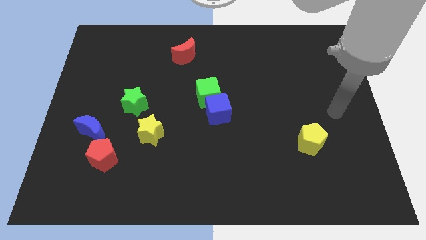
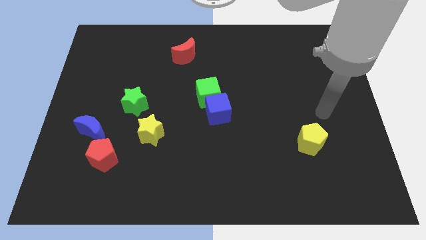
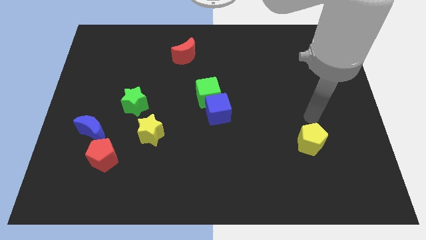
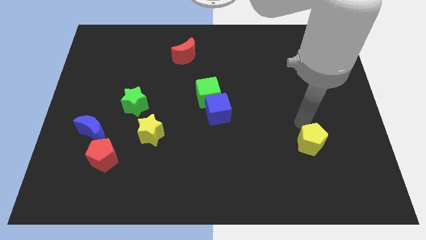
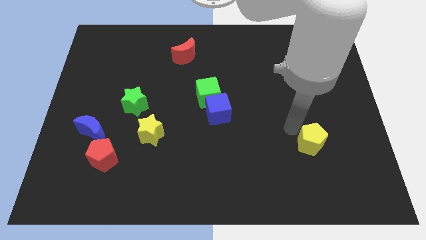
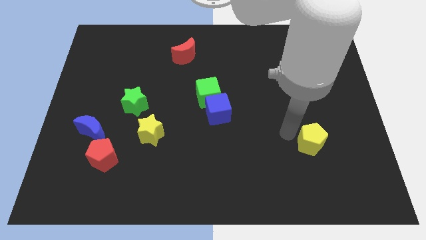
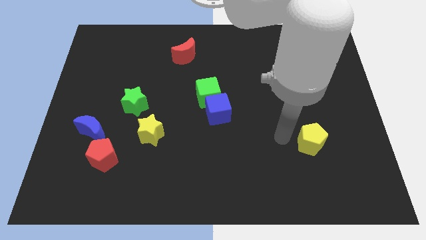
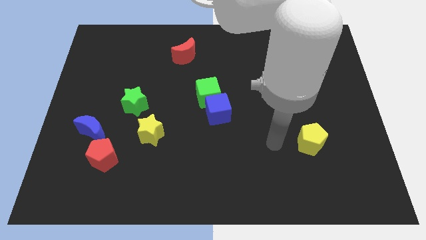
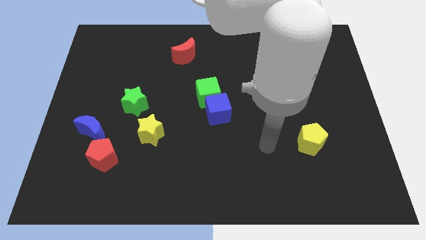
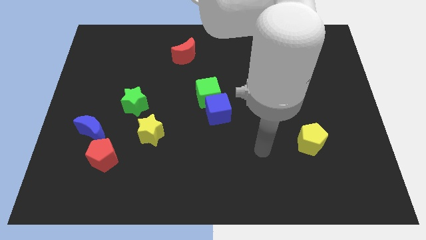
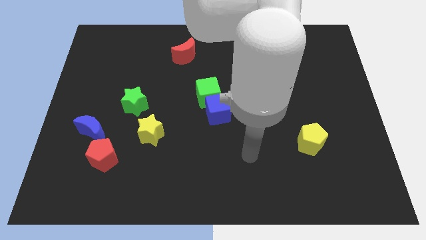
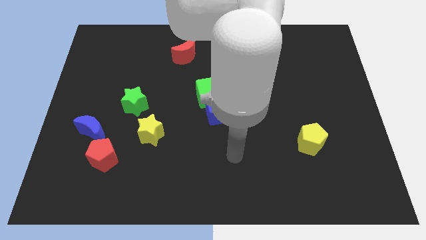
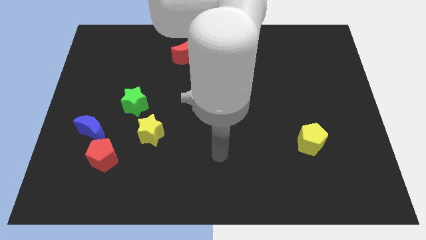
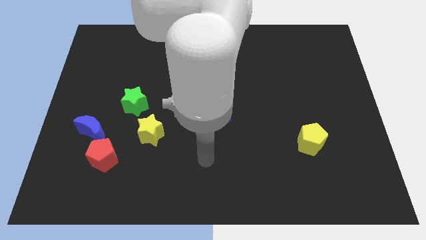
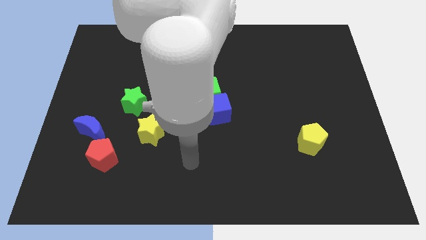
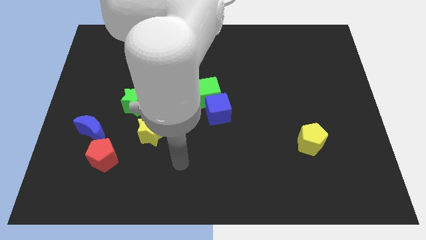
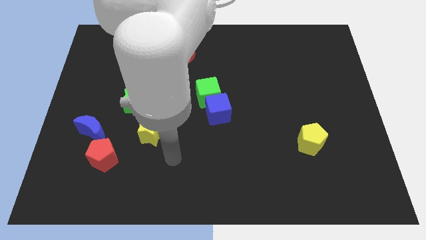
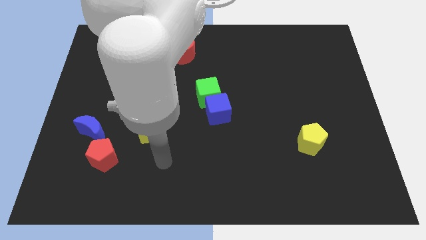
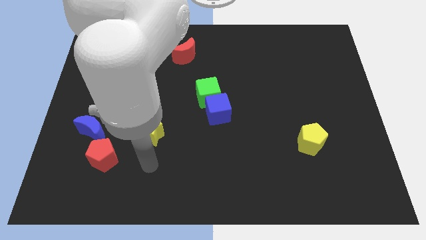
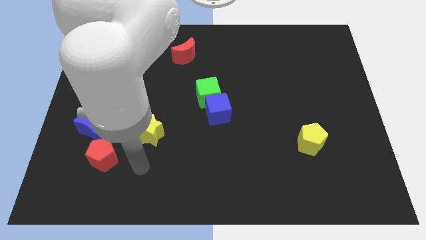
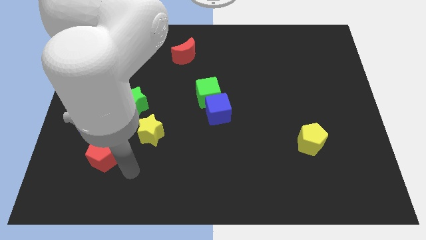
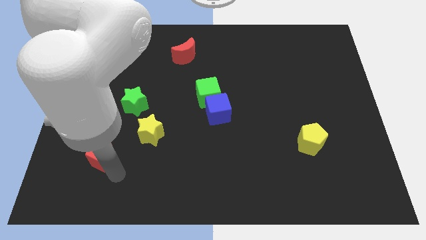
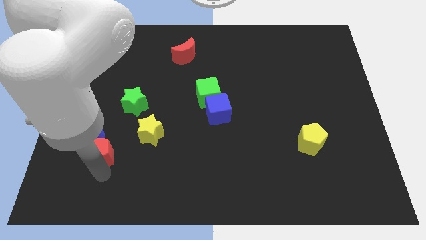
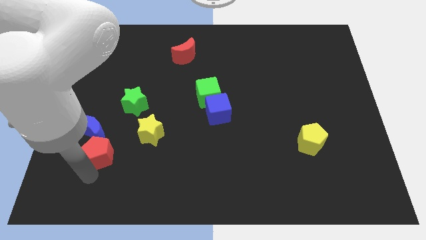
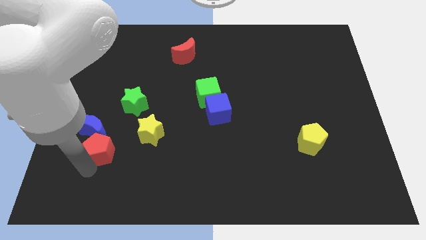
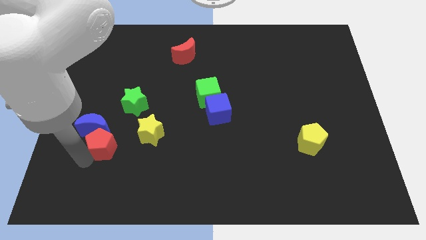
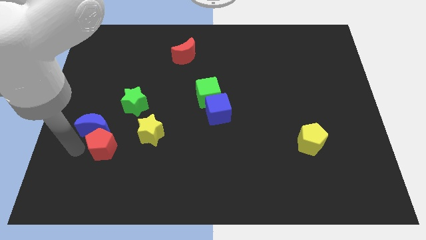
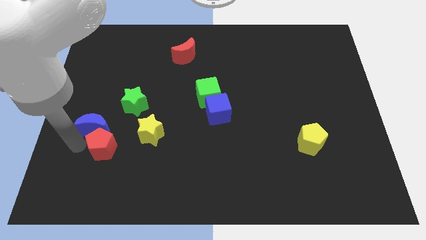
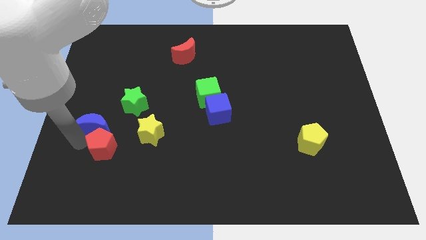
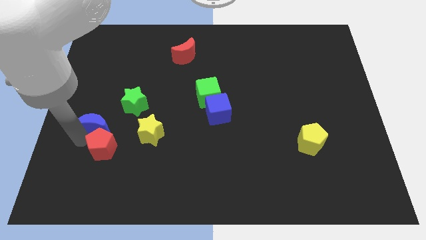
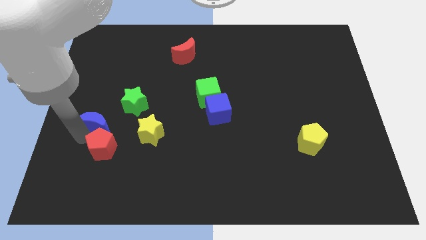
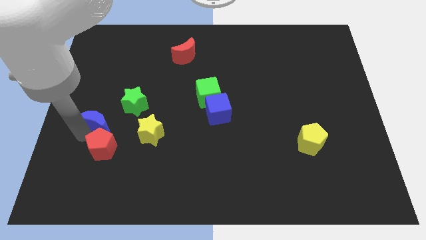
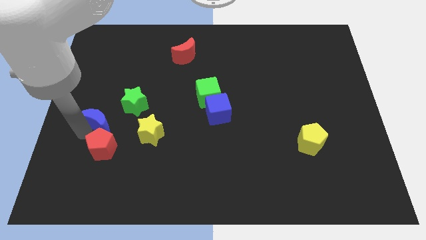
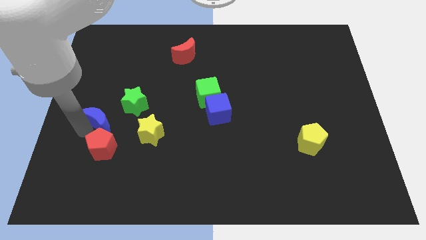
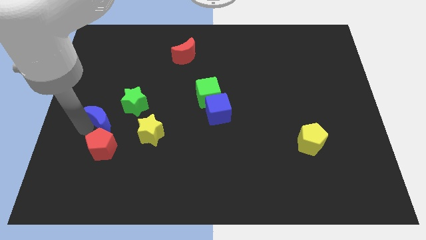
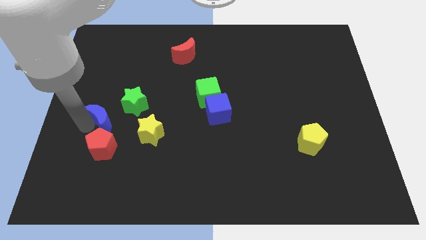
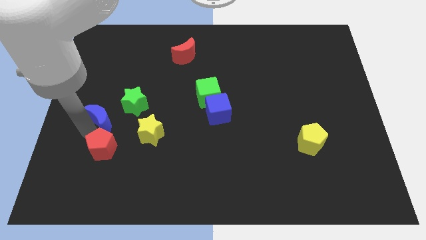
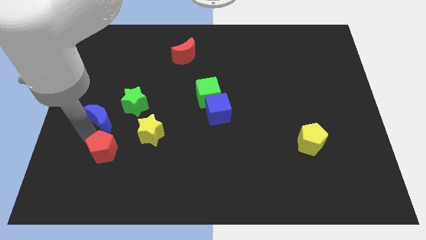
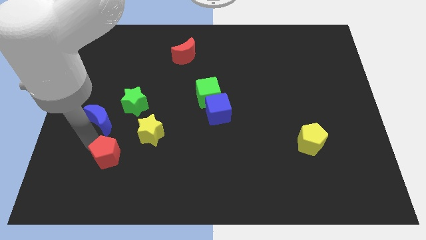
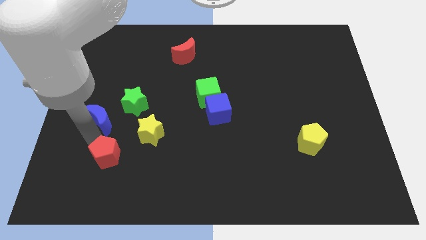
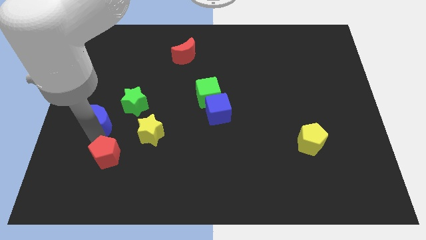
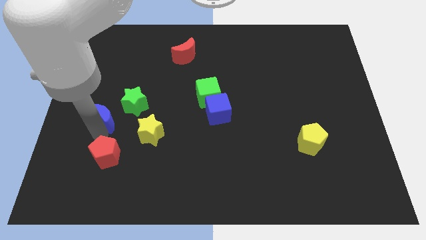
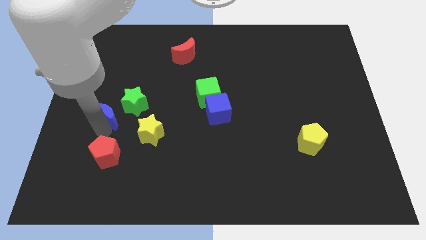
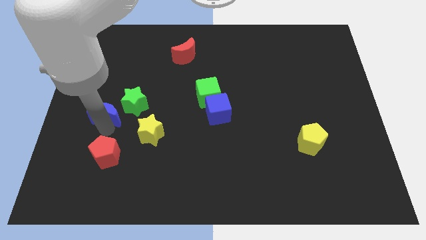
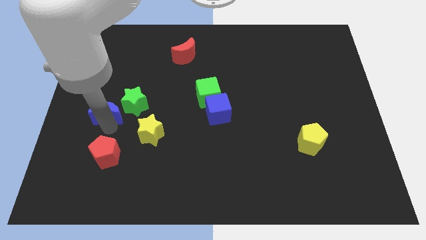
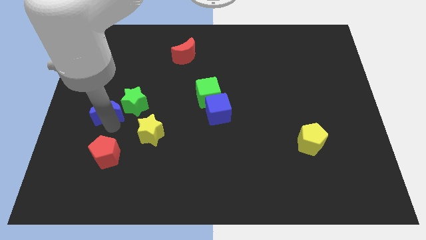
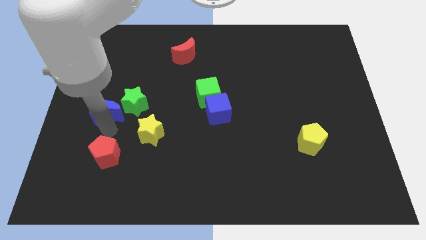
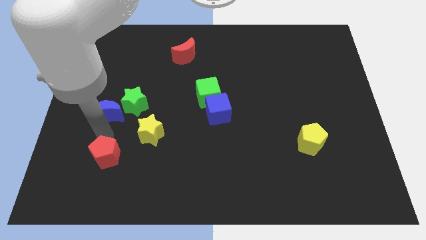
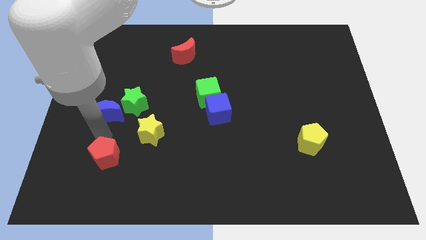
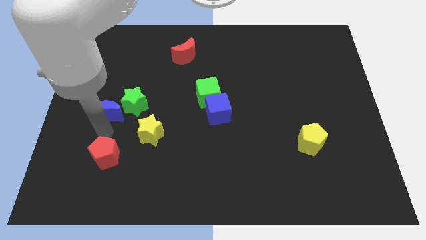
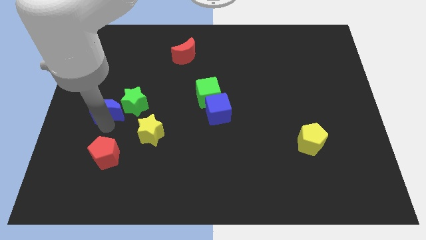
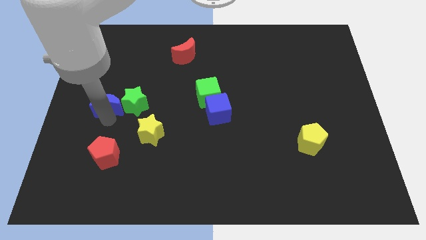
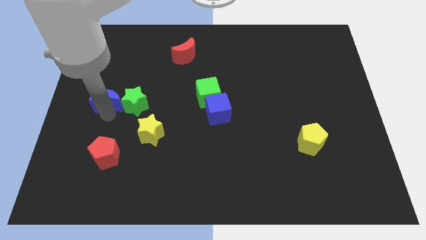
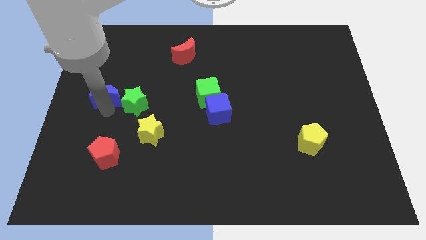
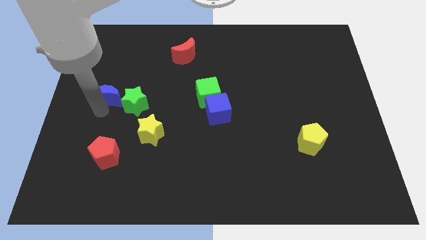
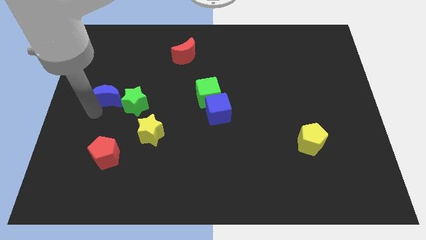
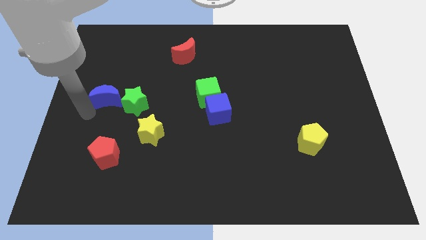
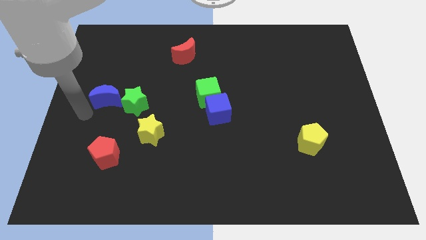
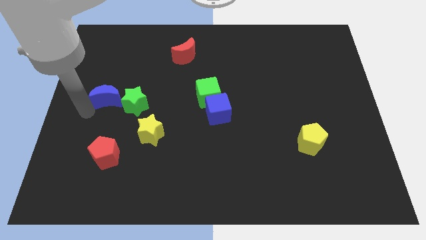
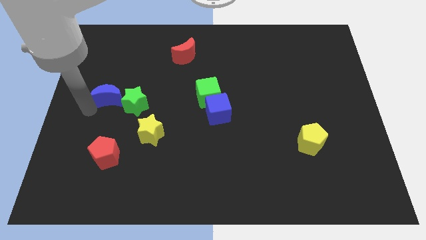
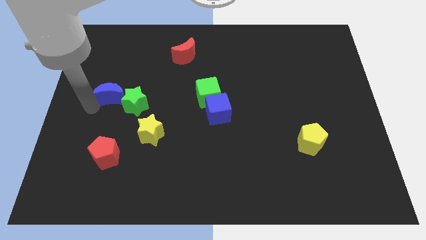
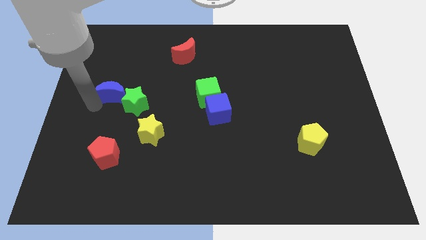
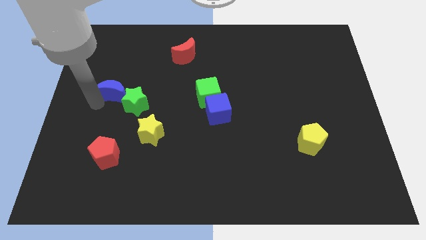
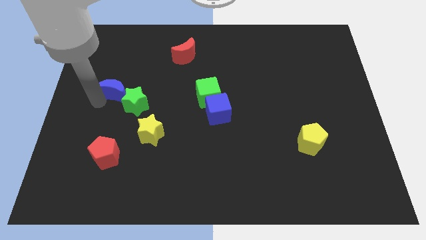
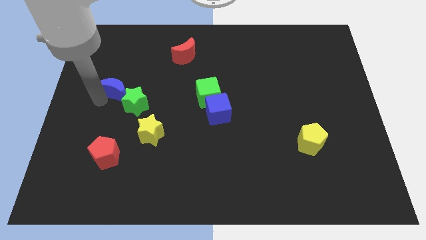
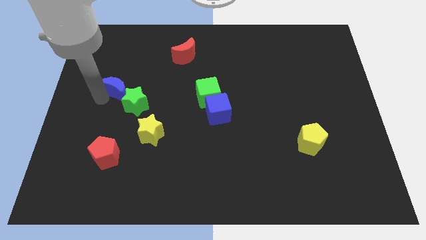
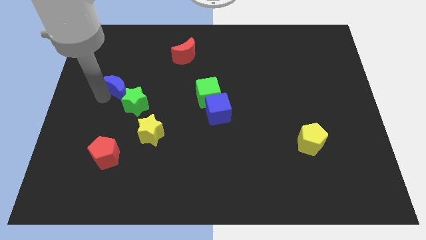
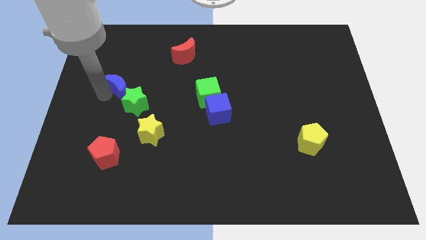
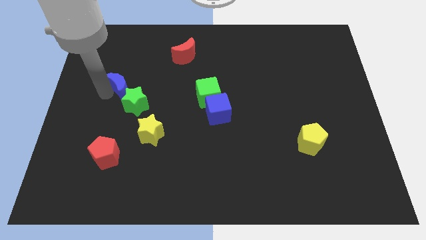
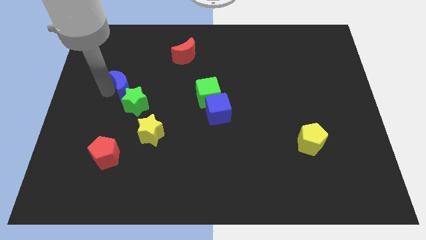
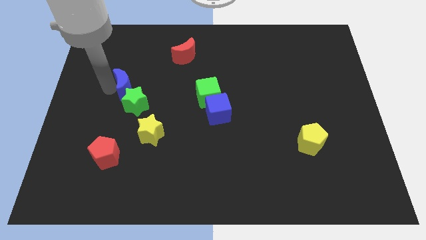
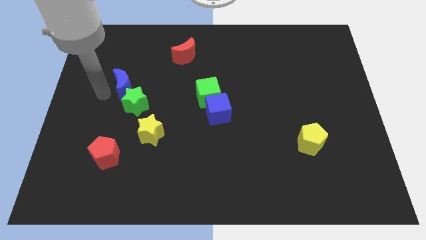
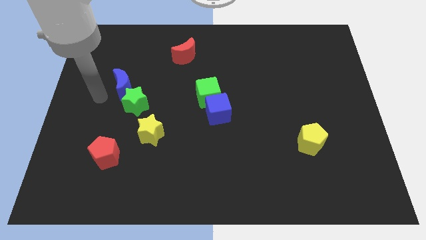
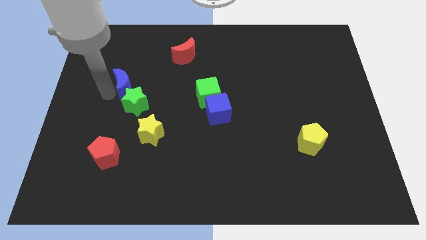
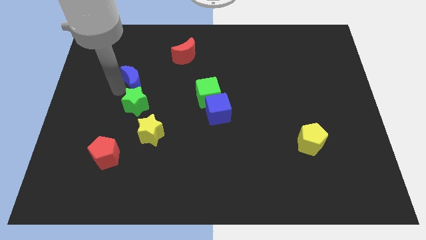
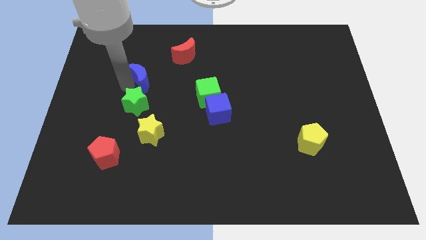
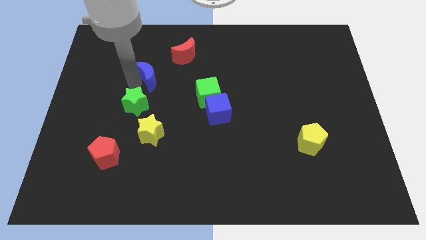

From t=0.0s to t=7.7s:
slide the blue moon to the bottom left side of the red moon

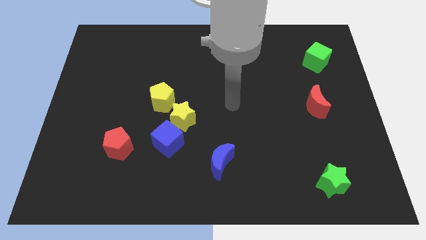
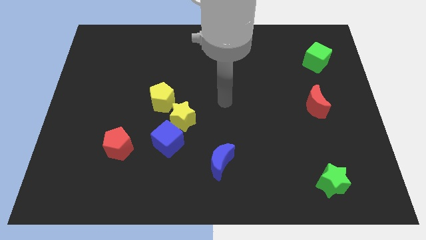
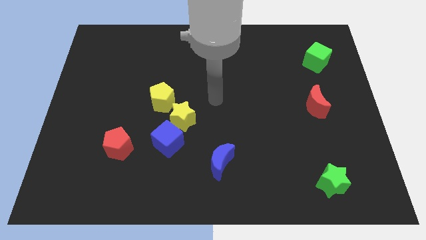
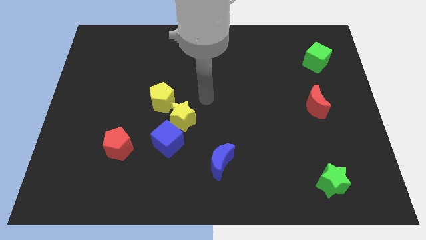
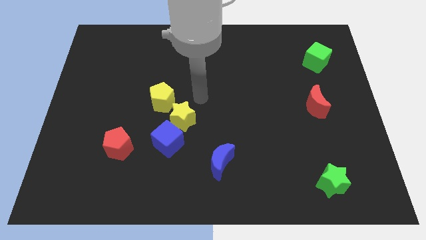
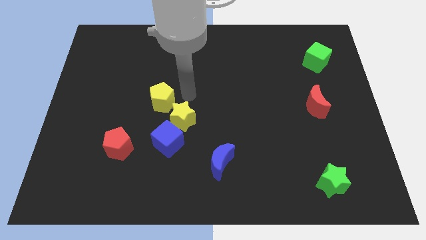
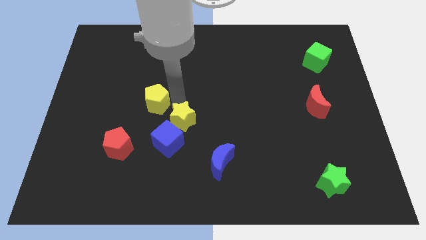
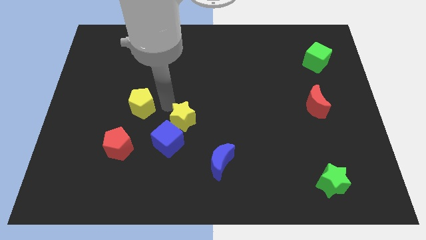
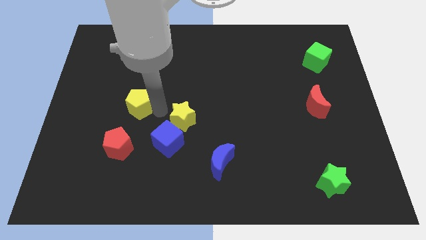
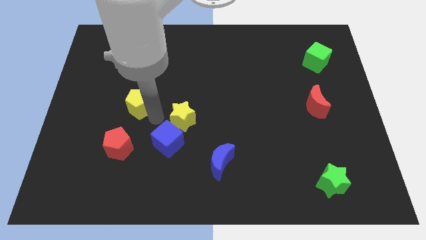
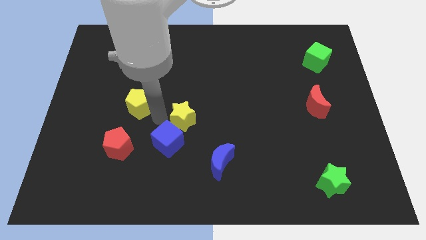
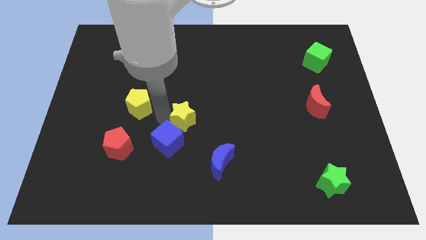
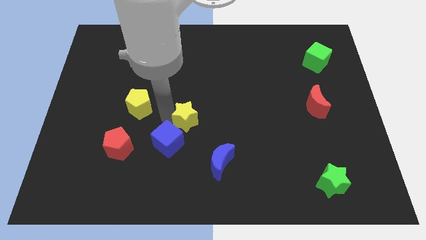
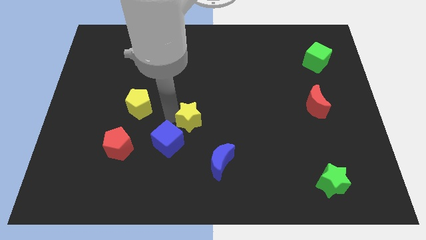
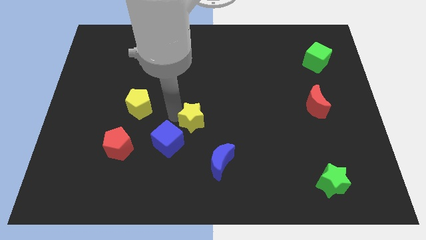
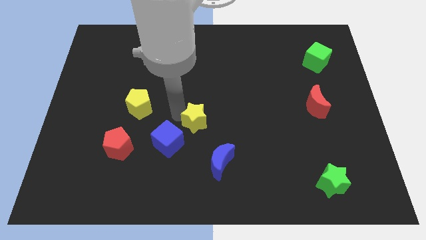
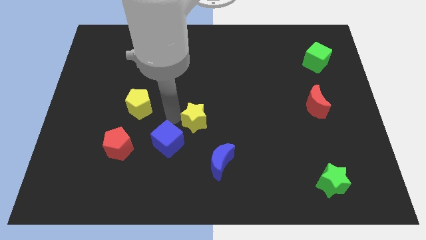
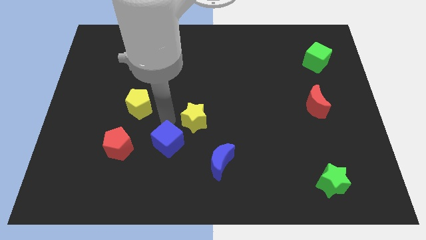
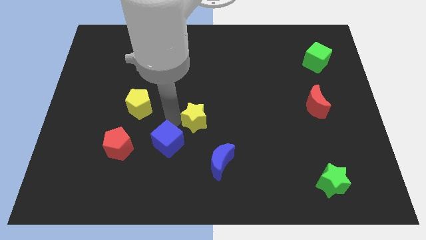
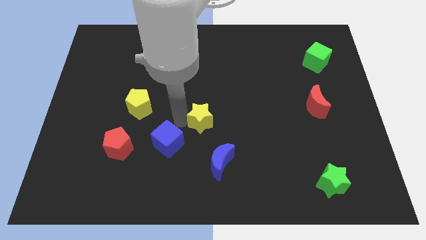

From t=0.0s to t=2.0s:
slide the yellow star to the top of the blue moon
